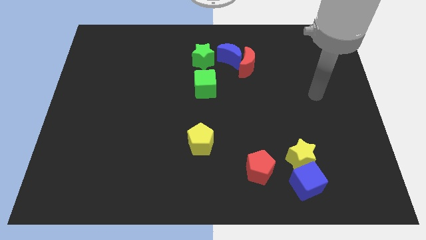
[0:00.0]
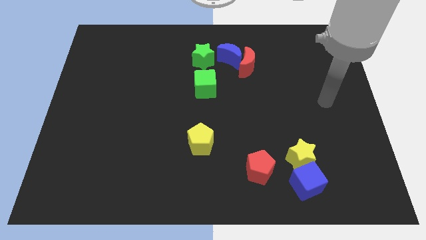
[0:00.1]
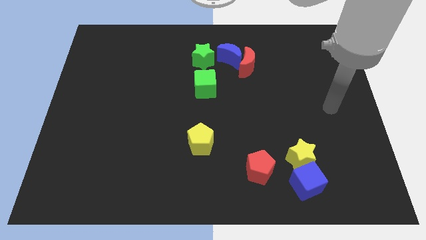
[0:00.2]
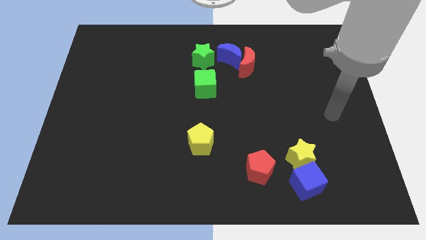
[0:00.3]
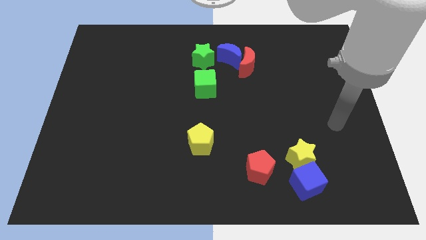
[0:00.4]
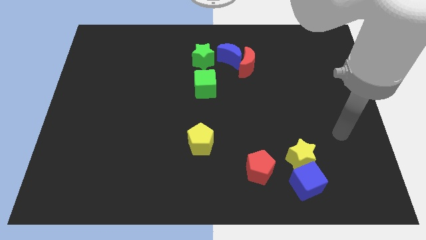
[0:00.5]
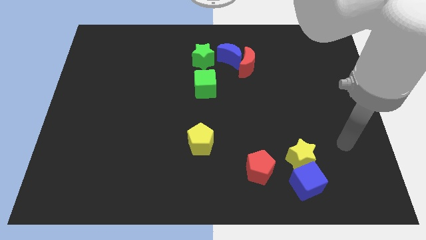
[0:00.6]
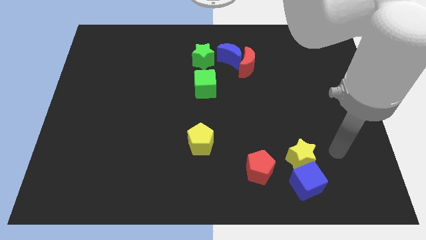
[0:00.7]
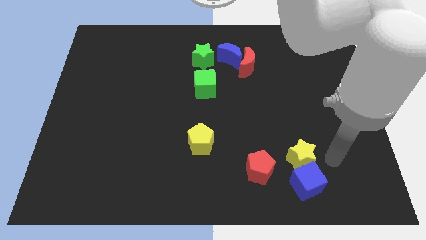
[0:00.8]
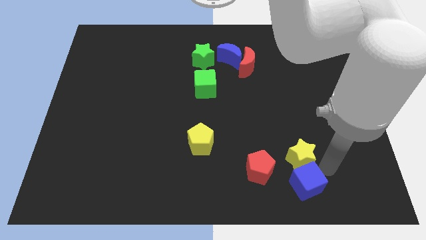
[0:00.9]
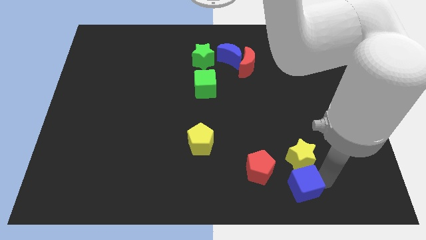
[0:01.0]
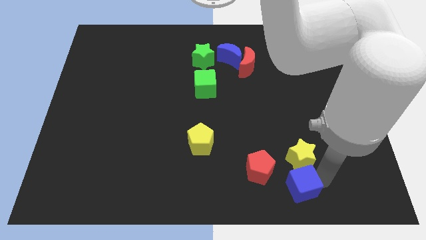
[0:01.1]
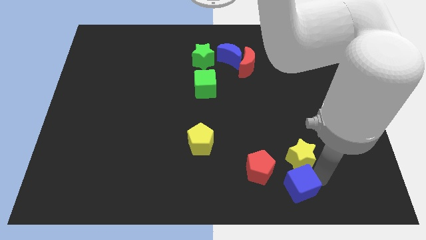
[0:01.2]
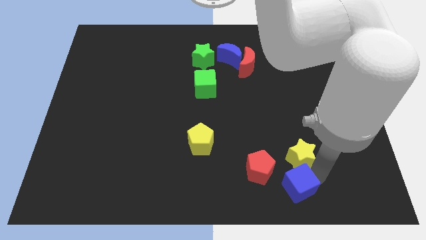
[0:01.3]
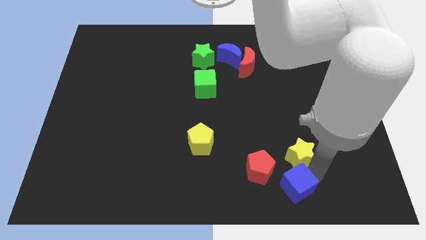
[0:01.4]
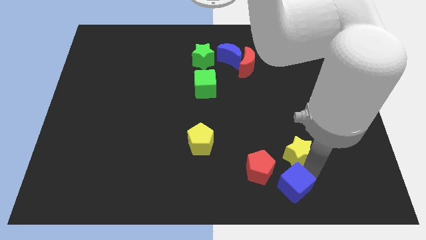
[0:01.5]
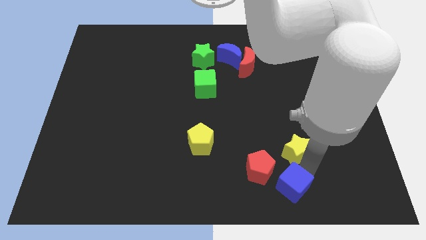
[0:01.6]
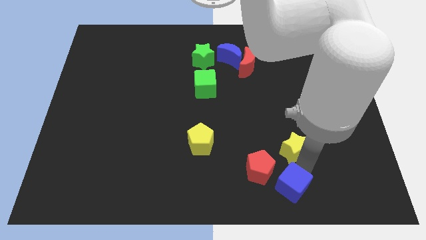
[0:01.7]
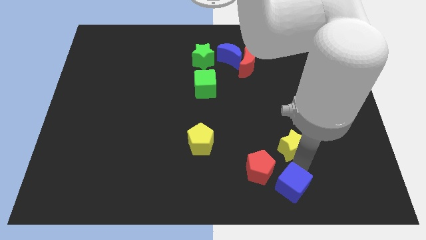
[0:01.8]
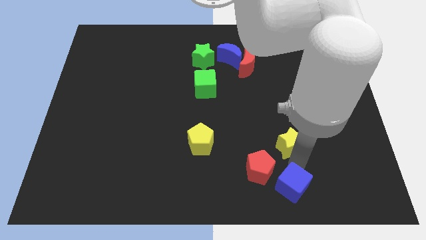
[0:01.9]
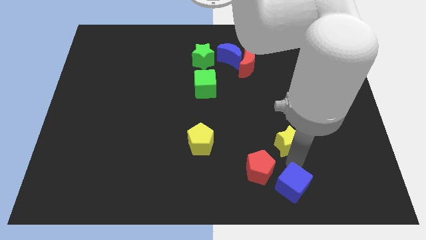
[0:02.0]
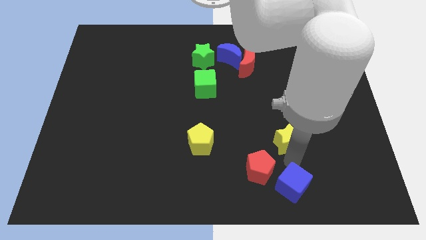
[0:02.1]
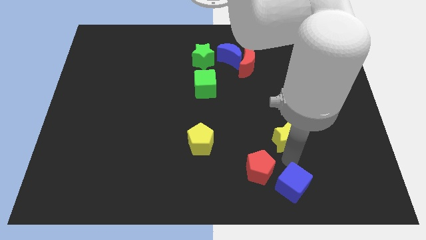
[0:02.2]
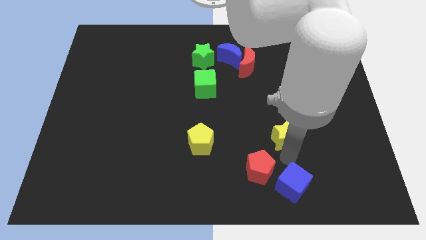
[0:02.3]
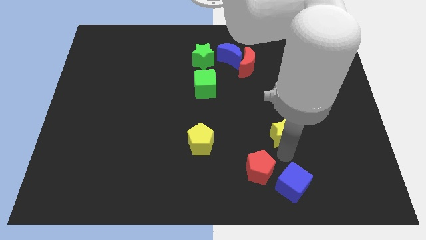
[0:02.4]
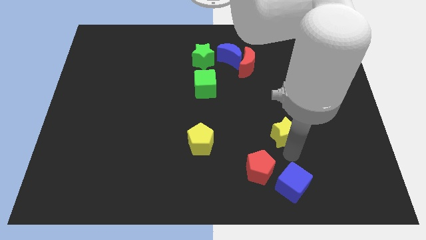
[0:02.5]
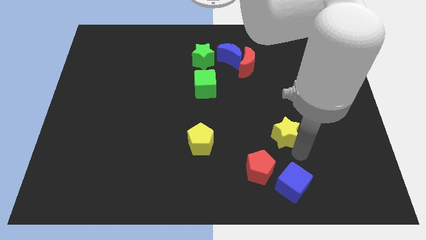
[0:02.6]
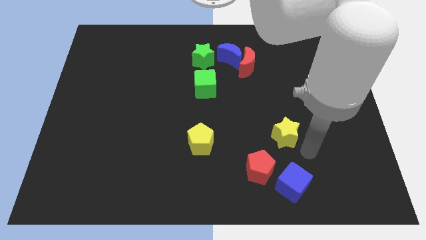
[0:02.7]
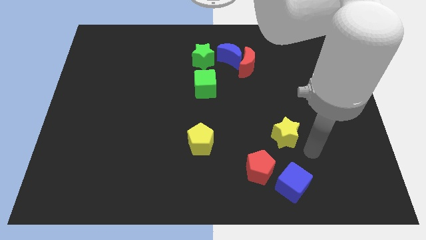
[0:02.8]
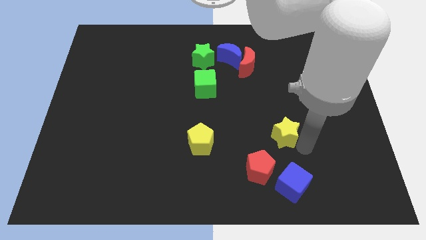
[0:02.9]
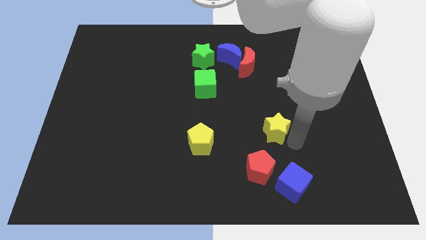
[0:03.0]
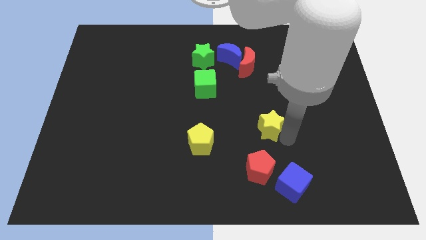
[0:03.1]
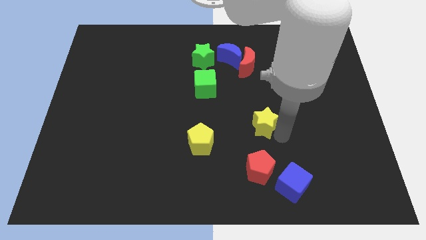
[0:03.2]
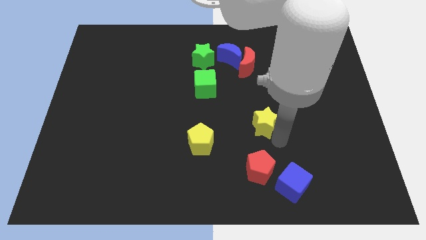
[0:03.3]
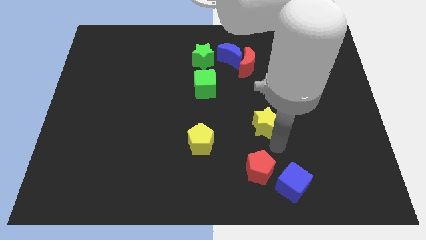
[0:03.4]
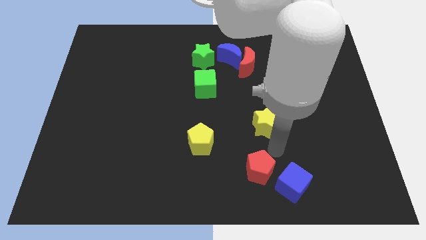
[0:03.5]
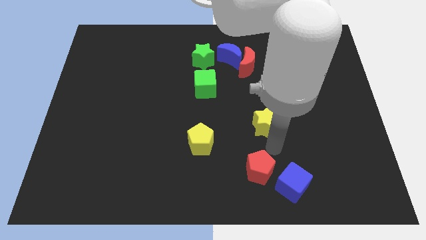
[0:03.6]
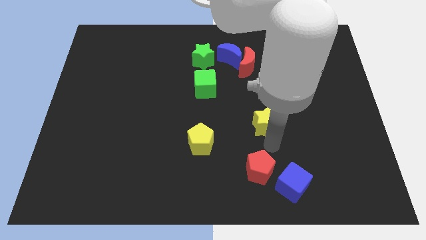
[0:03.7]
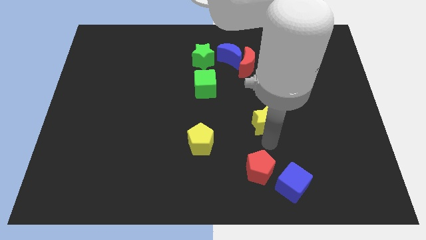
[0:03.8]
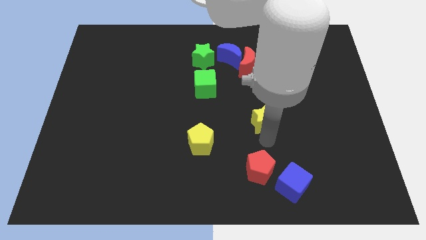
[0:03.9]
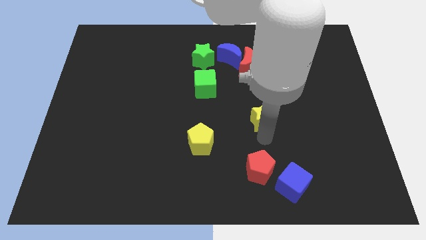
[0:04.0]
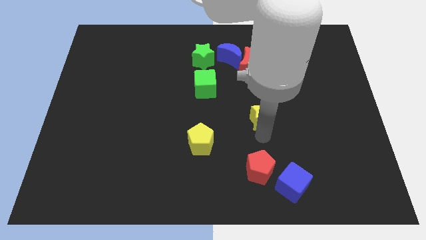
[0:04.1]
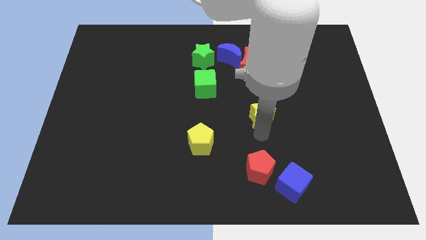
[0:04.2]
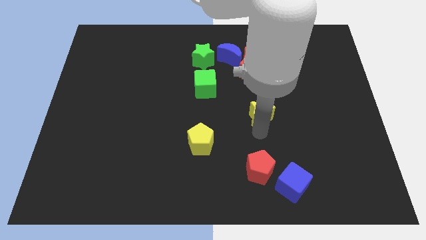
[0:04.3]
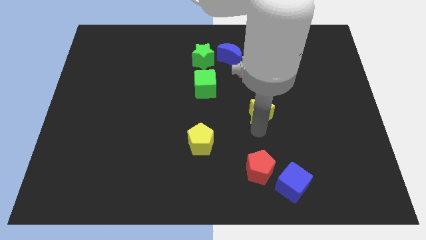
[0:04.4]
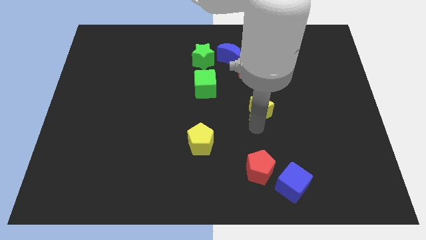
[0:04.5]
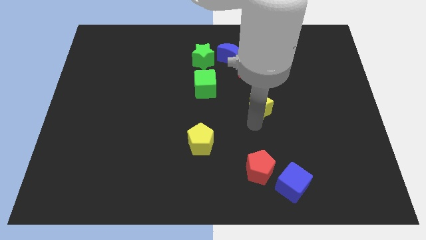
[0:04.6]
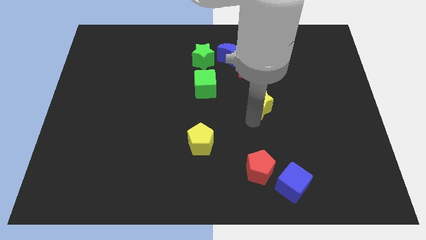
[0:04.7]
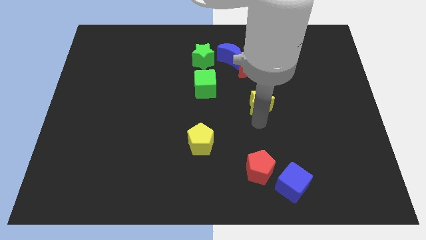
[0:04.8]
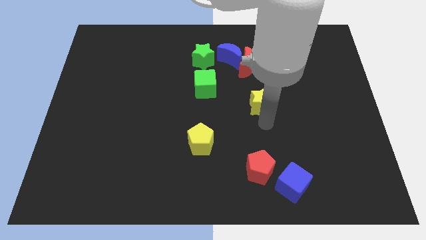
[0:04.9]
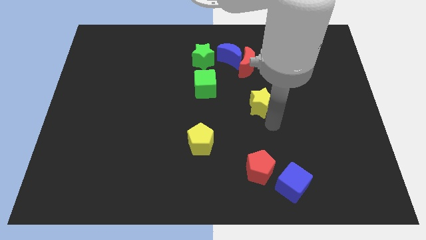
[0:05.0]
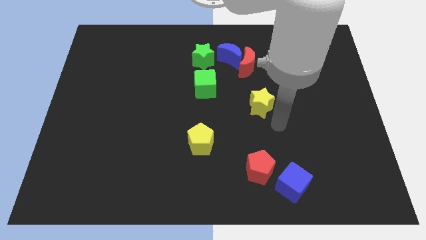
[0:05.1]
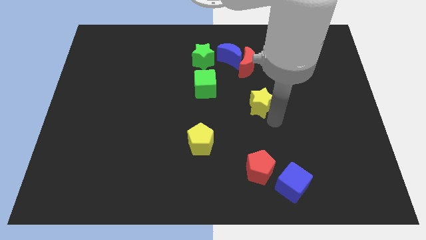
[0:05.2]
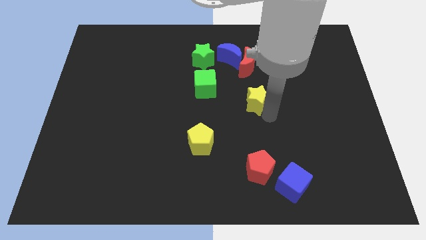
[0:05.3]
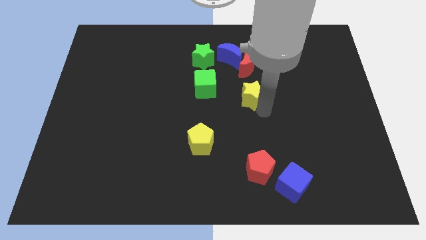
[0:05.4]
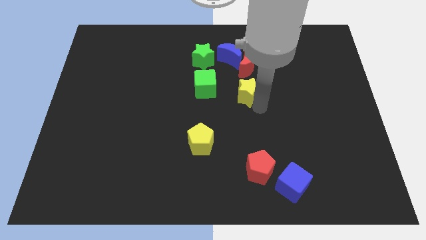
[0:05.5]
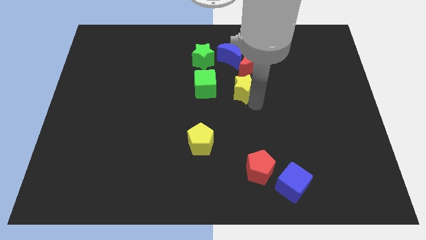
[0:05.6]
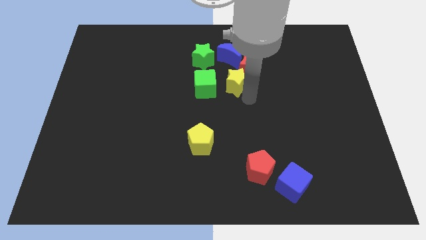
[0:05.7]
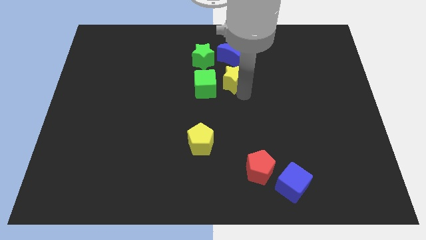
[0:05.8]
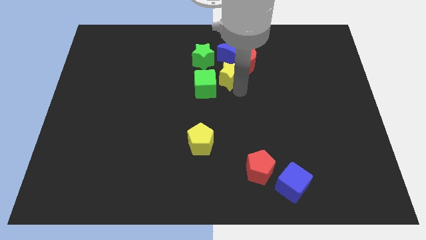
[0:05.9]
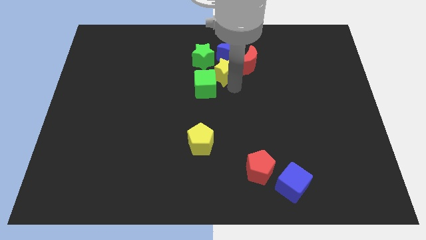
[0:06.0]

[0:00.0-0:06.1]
move the yellow star to the blue moon

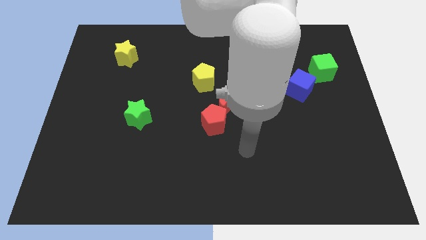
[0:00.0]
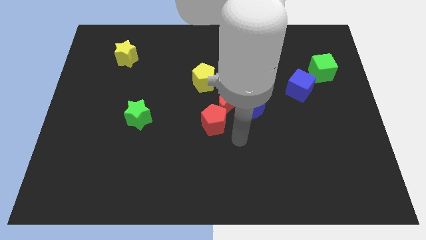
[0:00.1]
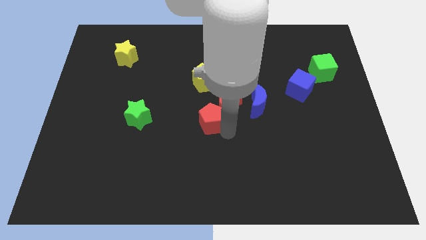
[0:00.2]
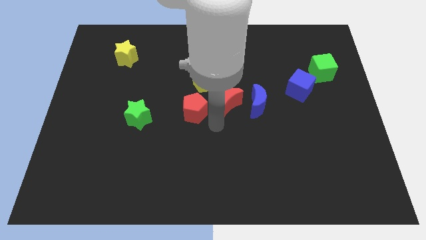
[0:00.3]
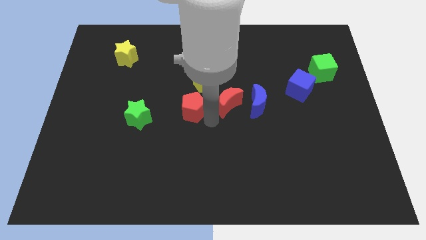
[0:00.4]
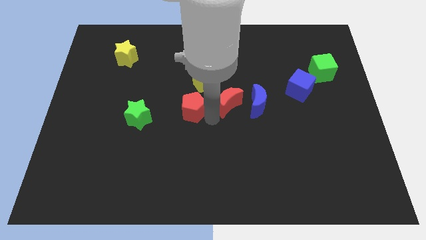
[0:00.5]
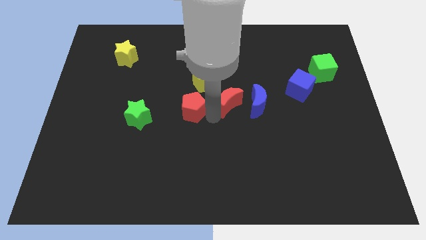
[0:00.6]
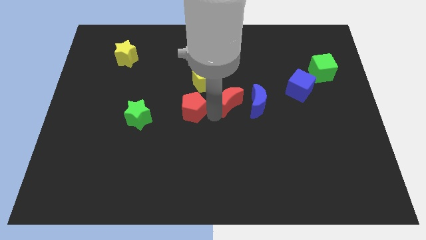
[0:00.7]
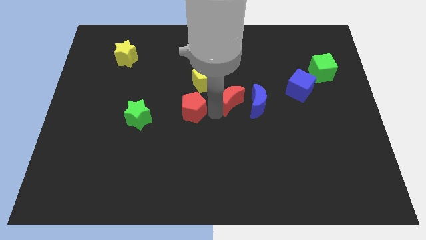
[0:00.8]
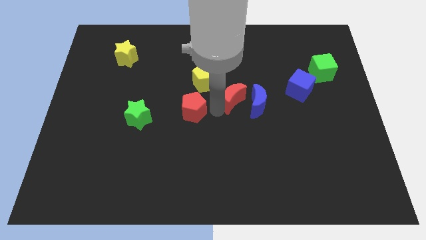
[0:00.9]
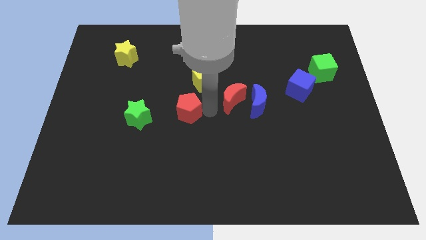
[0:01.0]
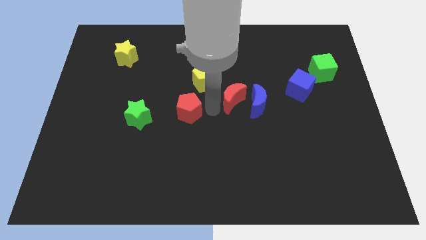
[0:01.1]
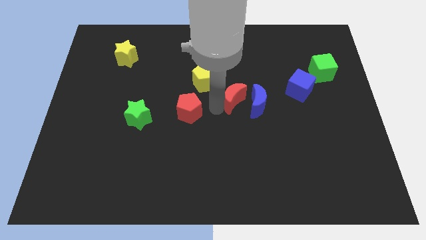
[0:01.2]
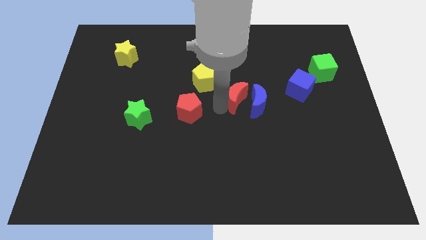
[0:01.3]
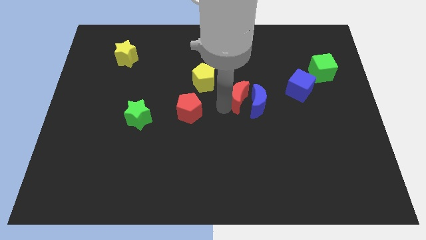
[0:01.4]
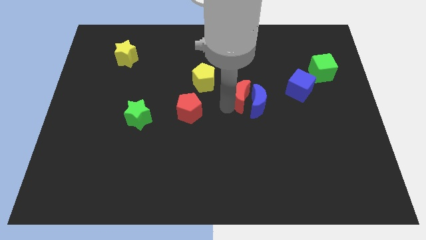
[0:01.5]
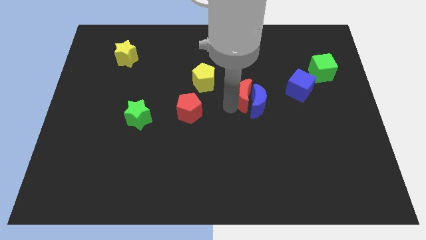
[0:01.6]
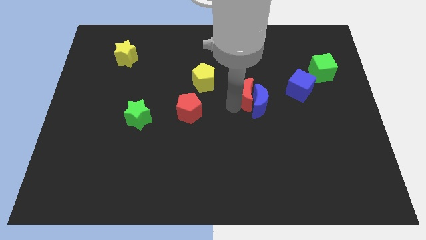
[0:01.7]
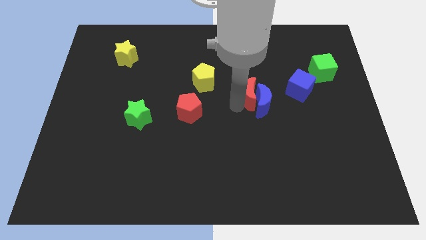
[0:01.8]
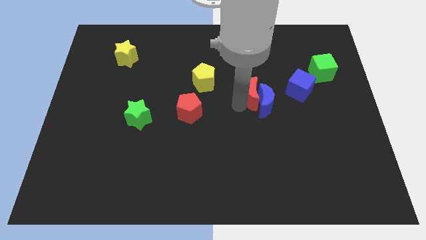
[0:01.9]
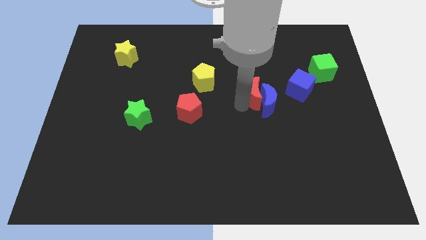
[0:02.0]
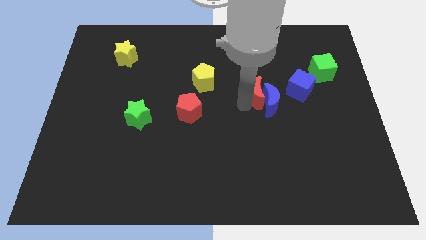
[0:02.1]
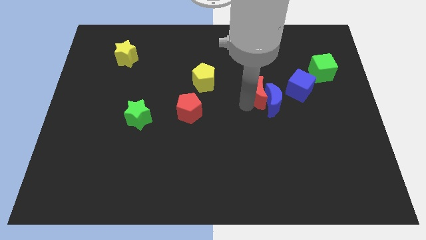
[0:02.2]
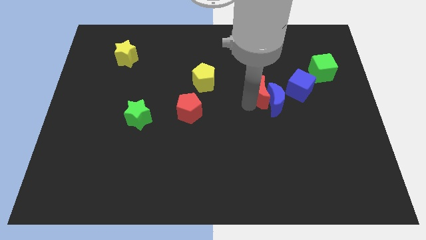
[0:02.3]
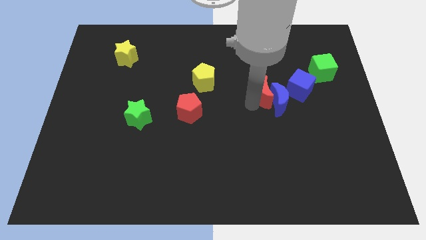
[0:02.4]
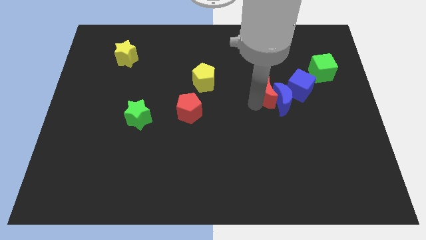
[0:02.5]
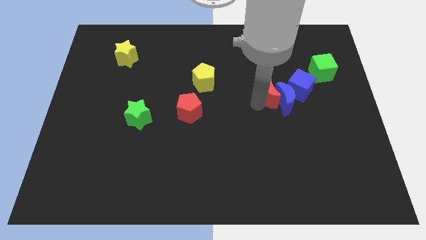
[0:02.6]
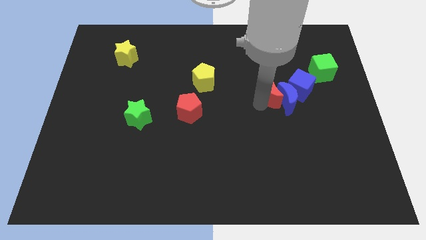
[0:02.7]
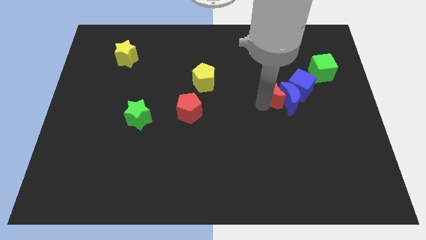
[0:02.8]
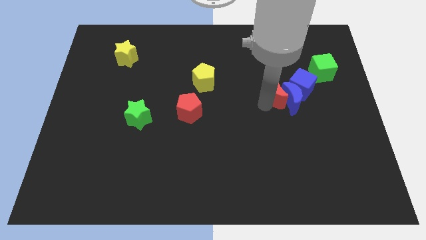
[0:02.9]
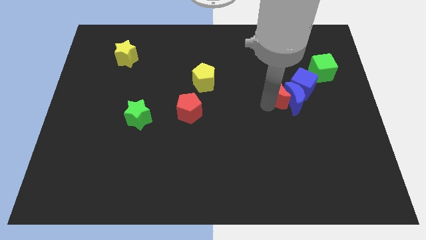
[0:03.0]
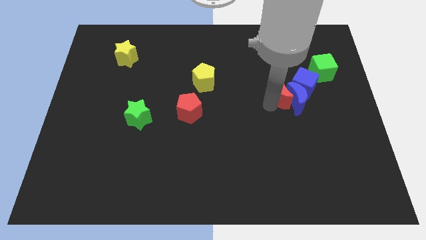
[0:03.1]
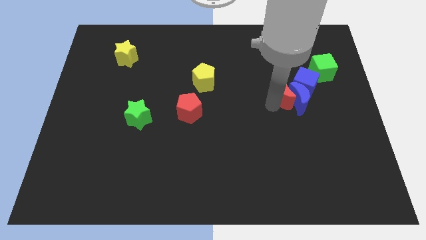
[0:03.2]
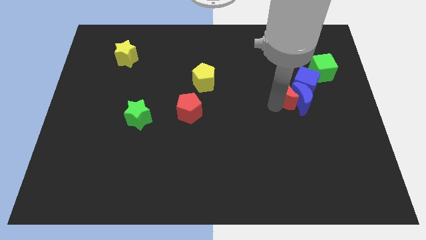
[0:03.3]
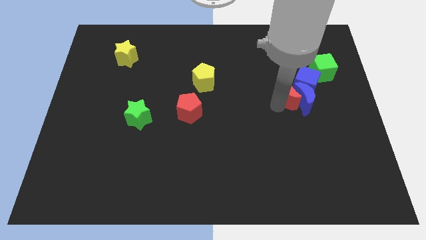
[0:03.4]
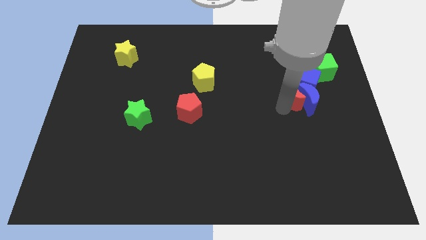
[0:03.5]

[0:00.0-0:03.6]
push the red moon close to the blue cube
